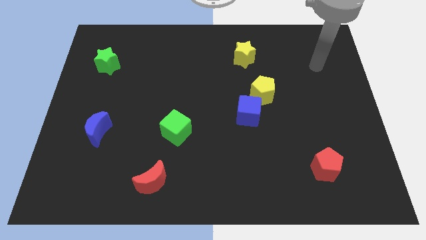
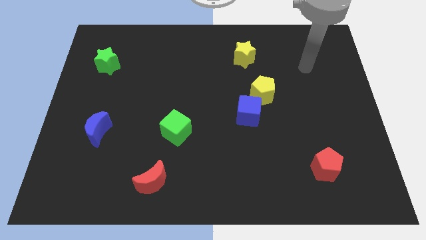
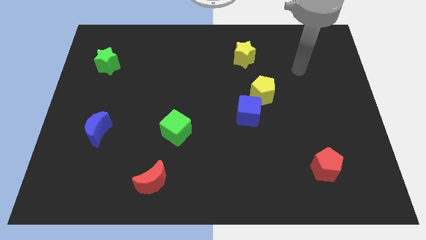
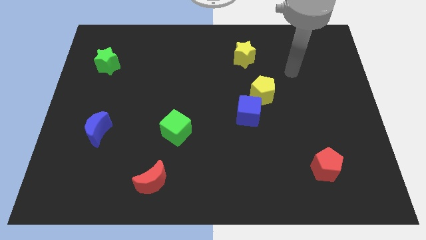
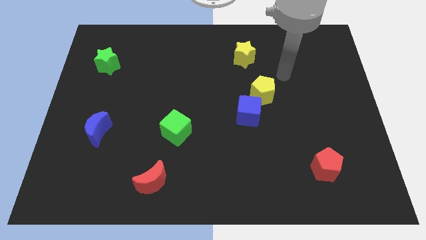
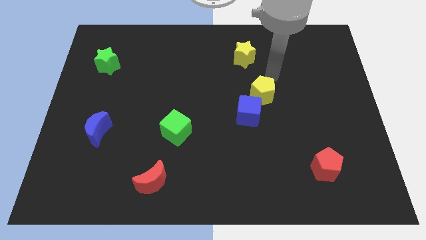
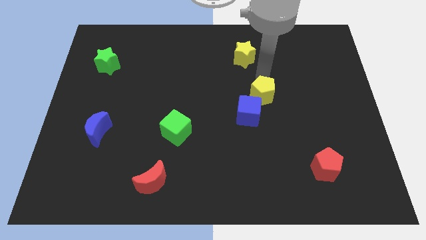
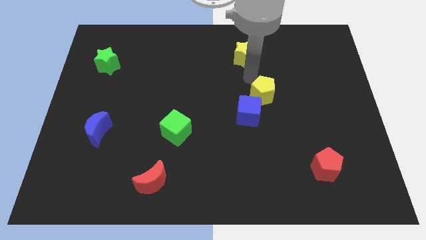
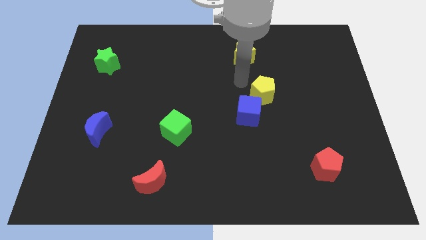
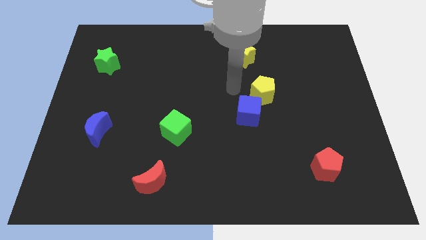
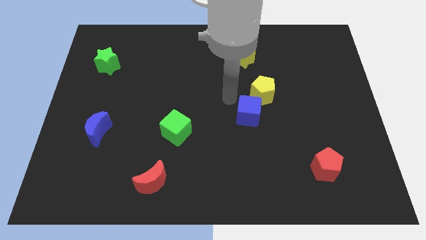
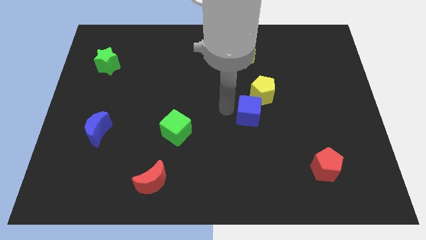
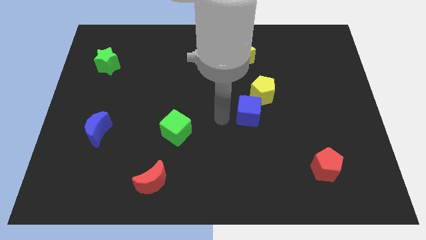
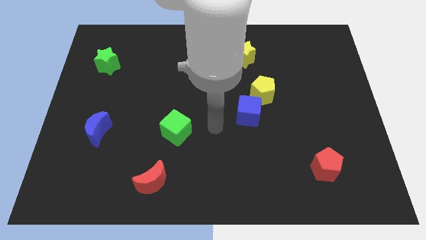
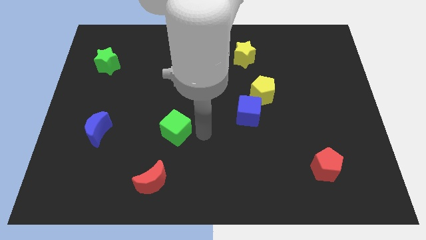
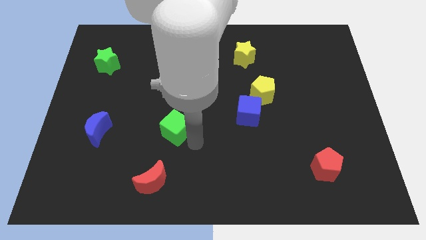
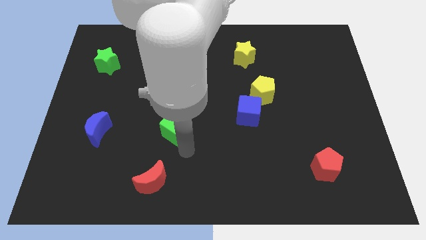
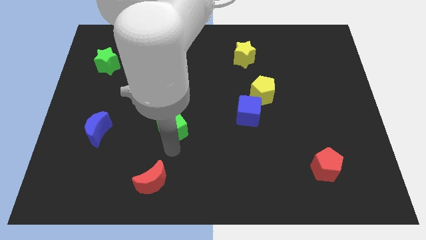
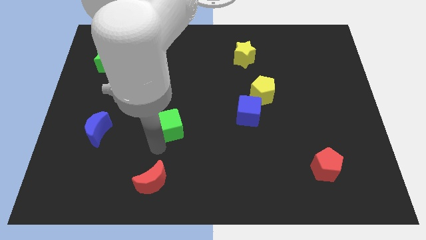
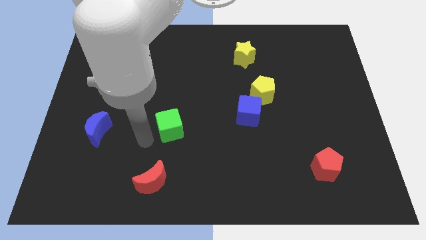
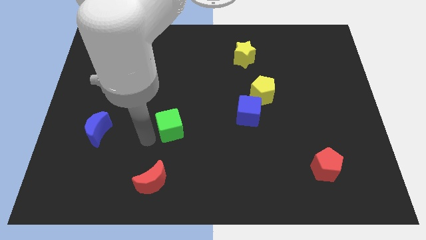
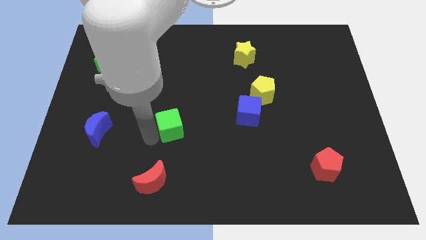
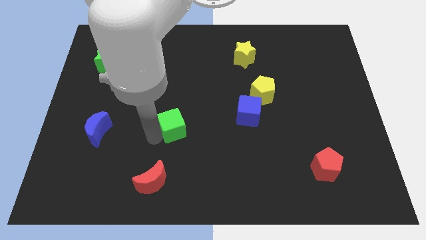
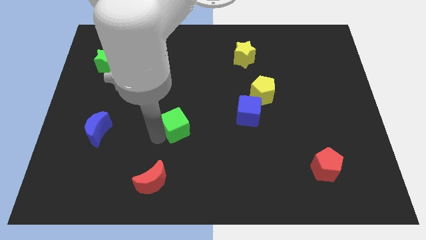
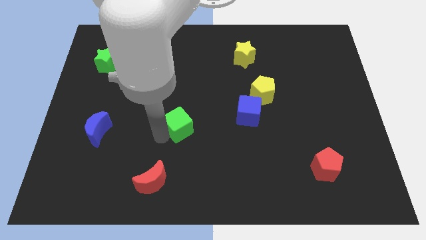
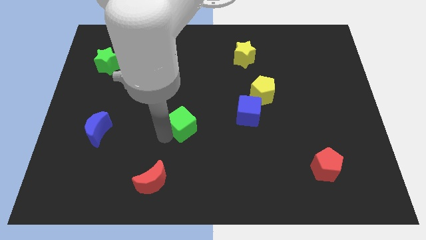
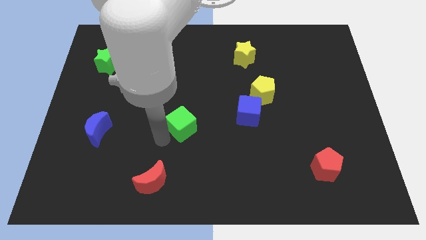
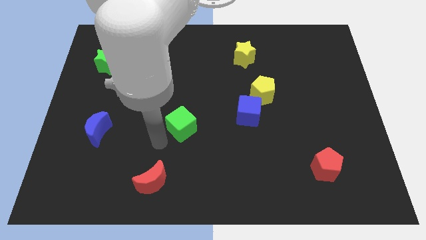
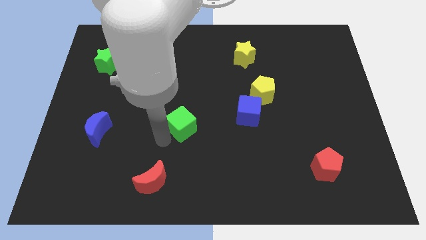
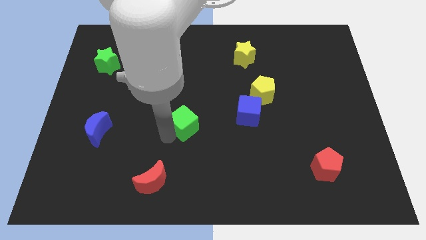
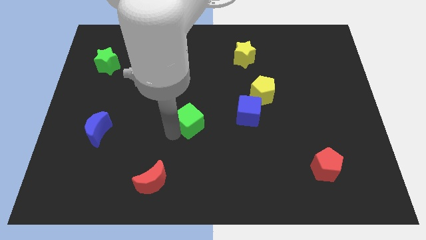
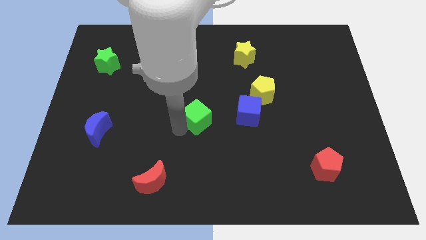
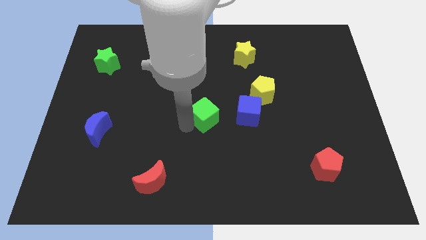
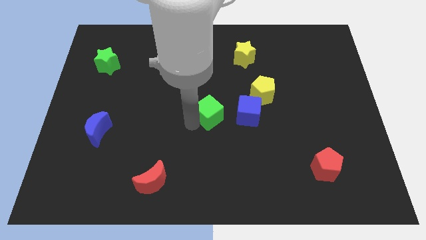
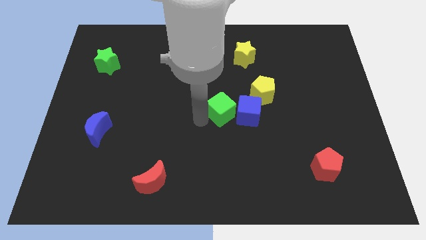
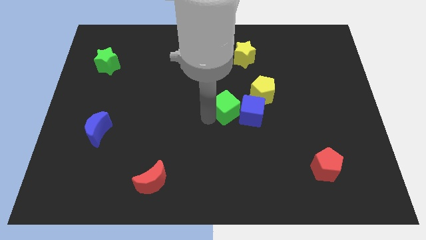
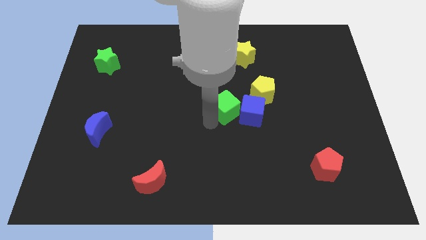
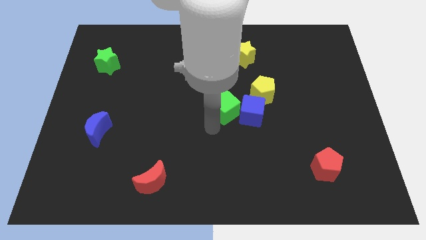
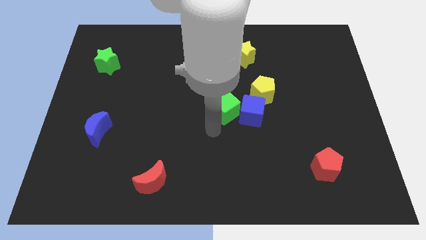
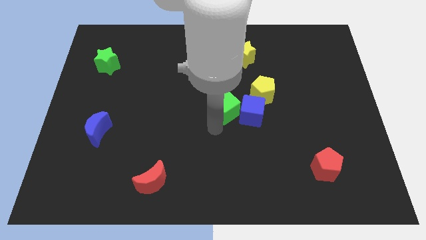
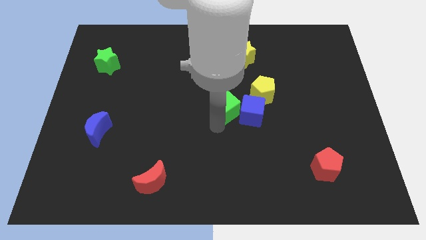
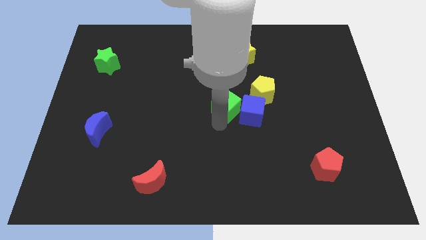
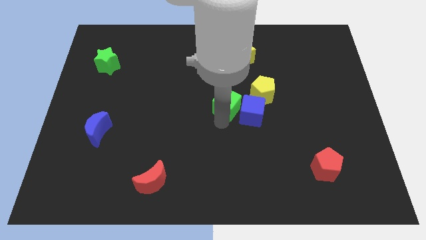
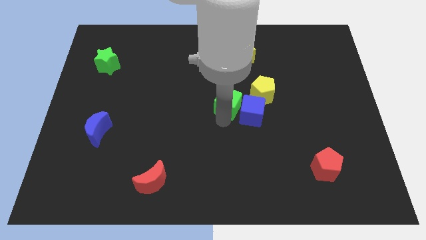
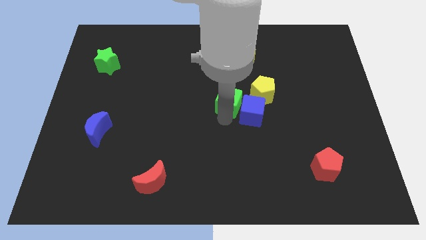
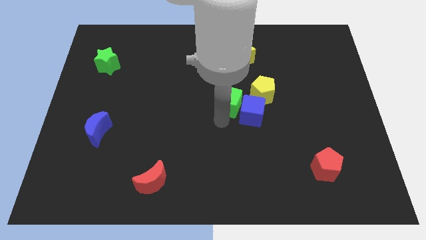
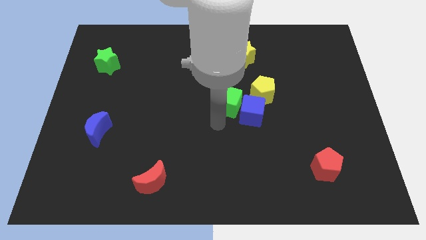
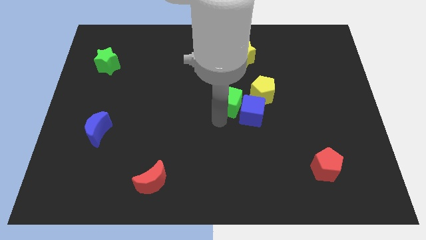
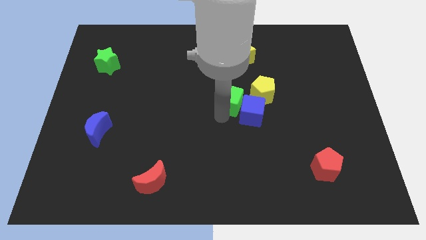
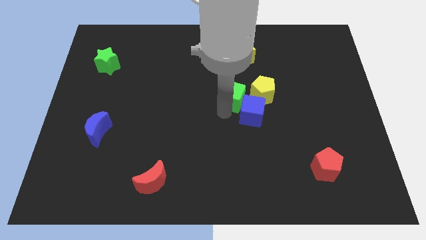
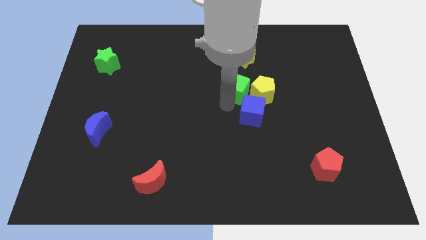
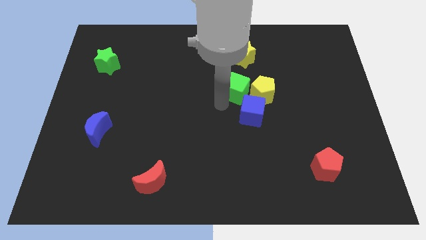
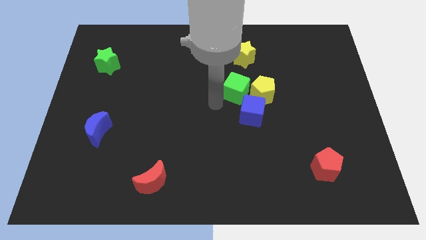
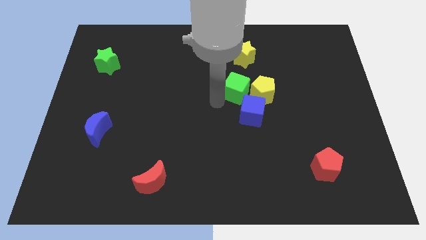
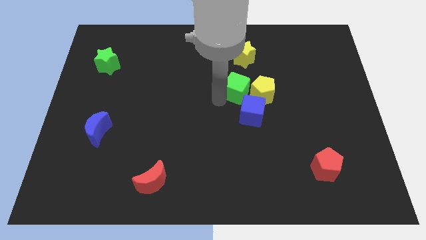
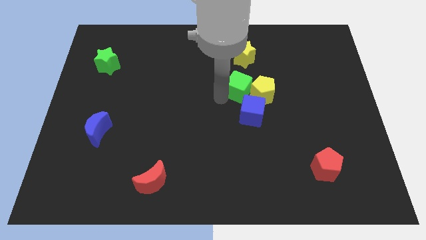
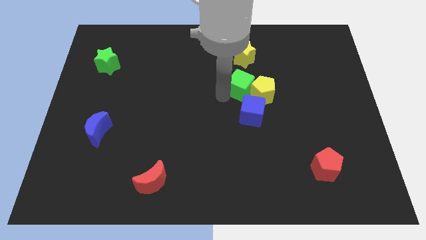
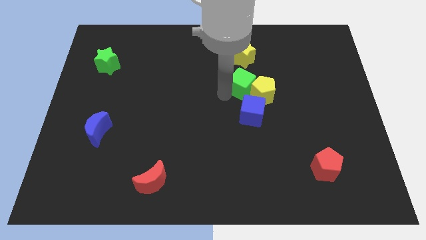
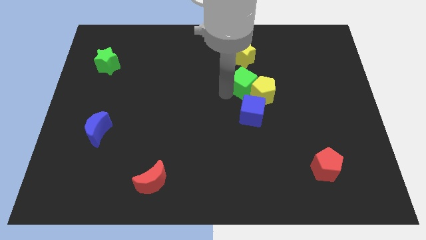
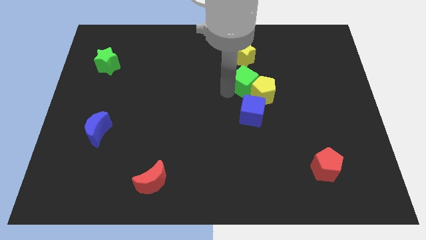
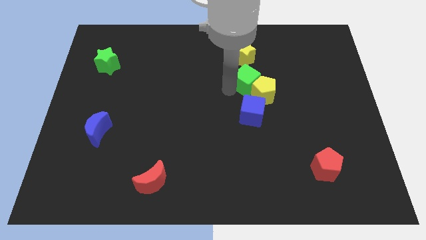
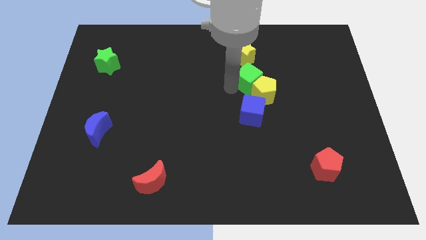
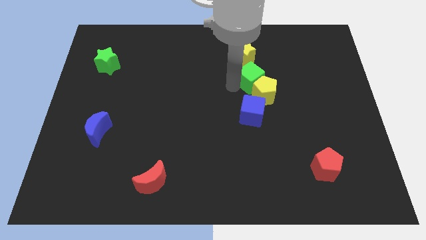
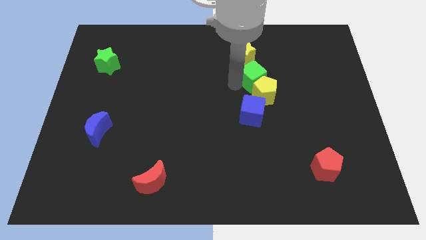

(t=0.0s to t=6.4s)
push the green cube to the bottom right side of the yellow star
